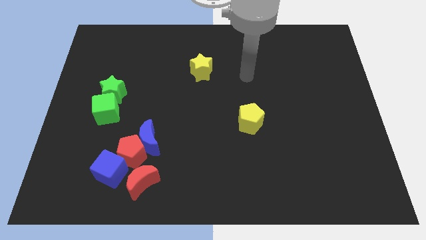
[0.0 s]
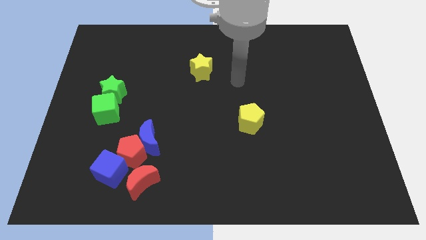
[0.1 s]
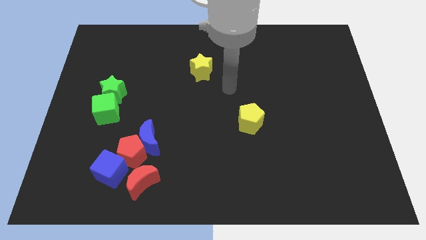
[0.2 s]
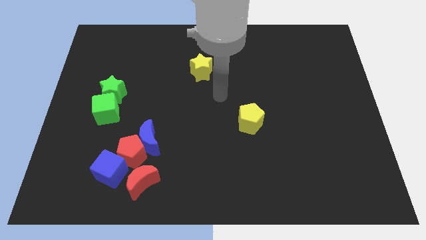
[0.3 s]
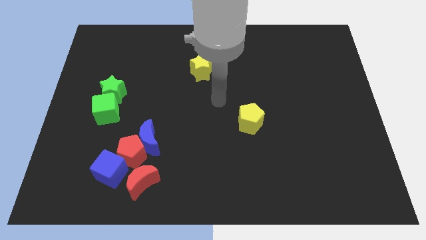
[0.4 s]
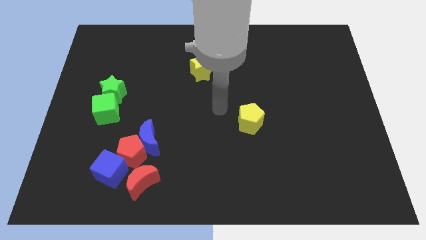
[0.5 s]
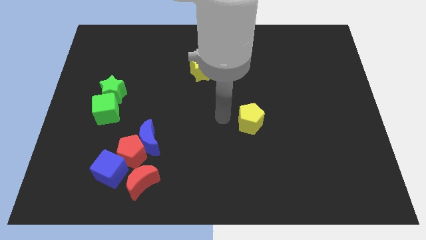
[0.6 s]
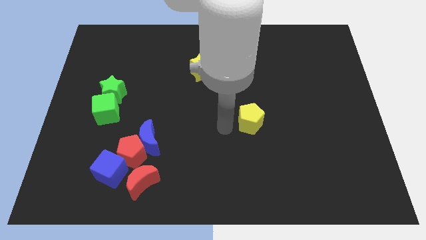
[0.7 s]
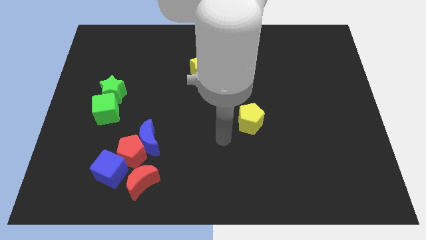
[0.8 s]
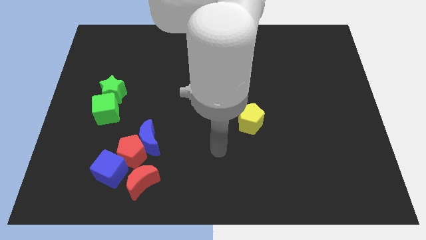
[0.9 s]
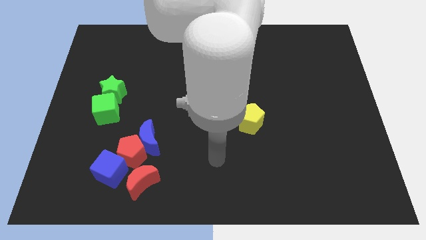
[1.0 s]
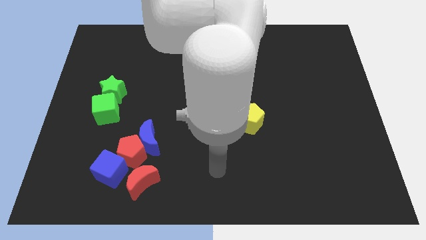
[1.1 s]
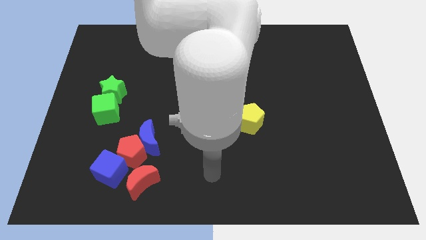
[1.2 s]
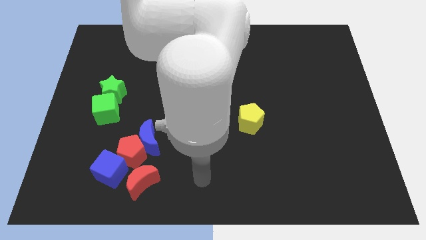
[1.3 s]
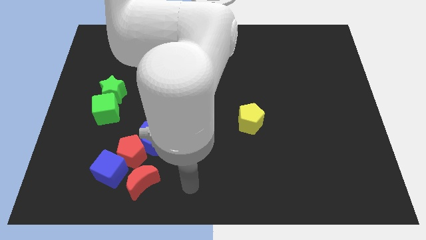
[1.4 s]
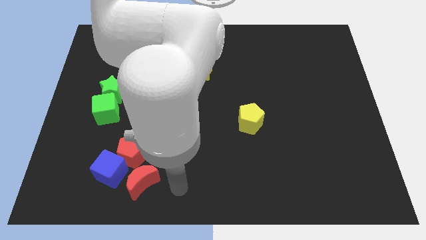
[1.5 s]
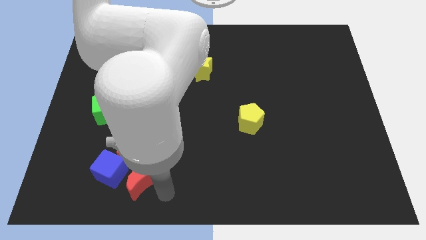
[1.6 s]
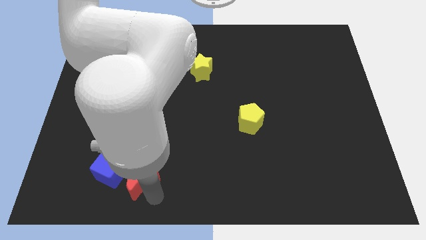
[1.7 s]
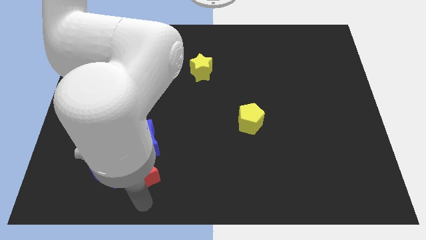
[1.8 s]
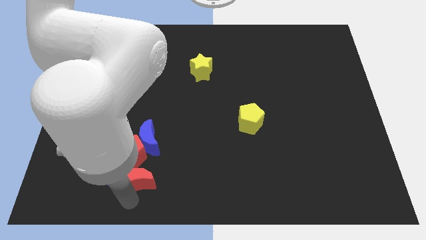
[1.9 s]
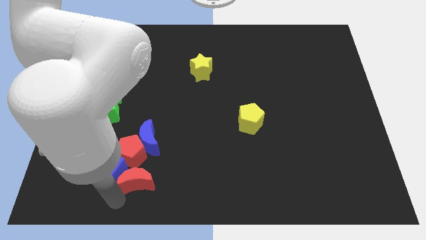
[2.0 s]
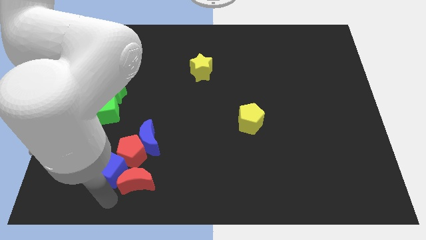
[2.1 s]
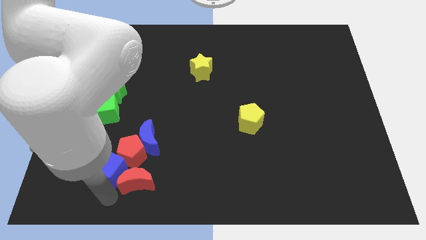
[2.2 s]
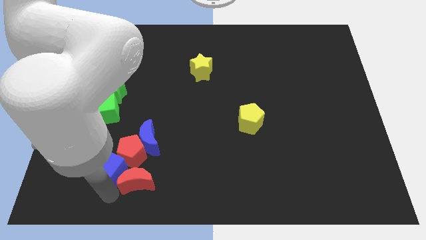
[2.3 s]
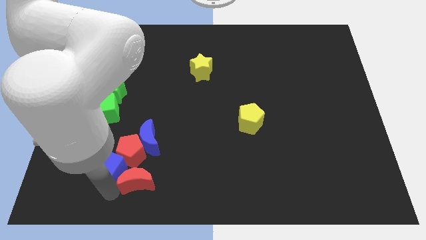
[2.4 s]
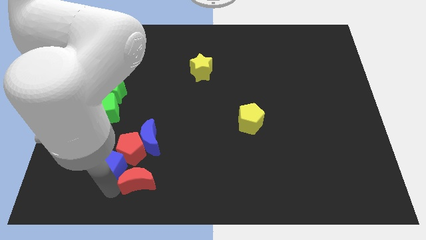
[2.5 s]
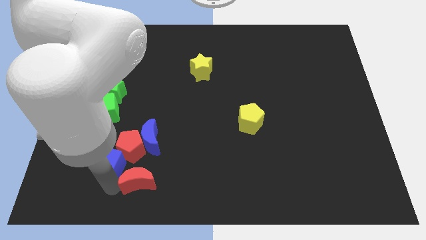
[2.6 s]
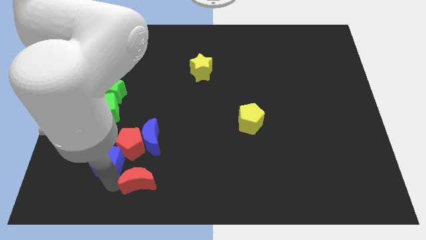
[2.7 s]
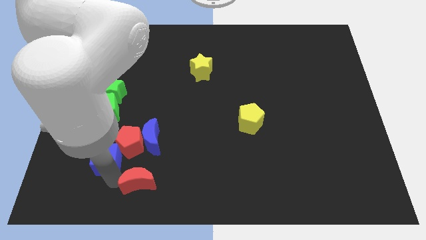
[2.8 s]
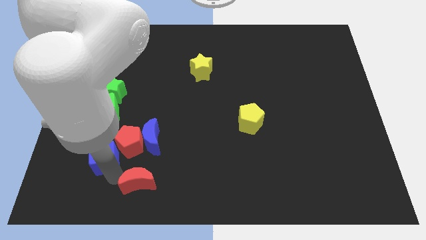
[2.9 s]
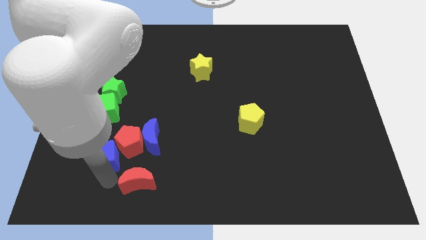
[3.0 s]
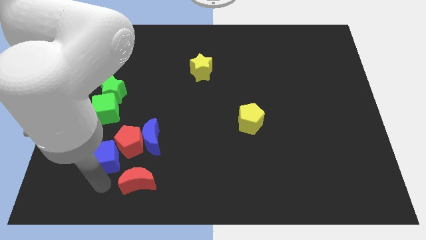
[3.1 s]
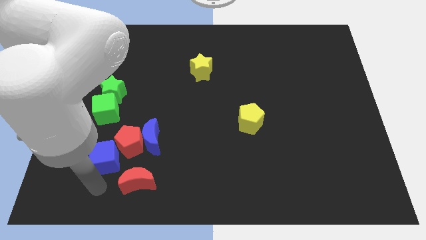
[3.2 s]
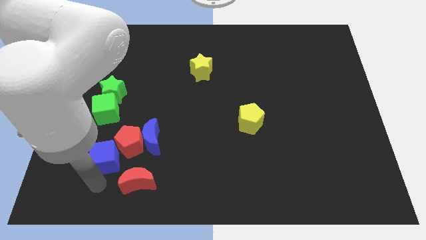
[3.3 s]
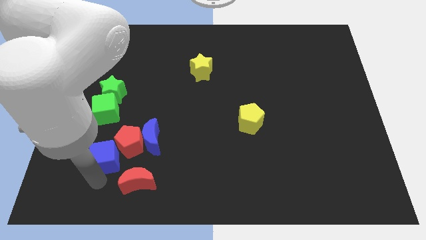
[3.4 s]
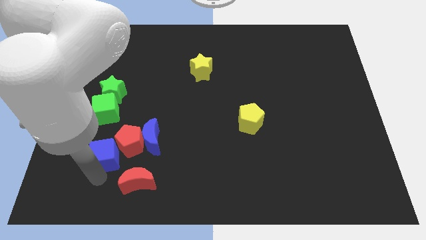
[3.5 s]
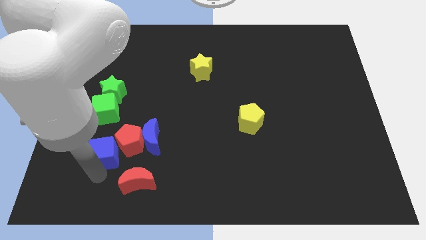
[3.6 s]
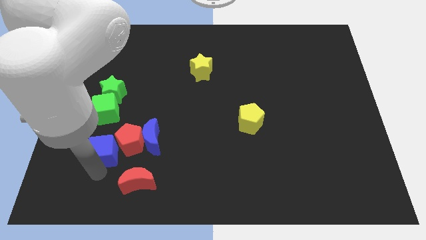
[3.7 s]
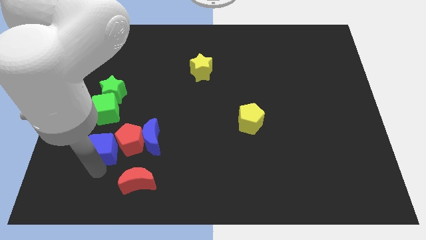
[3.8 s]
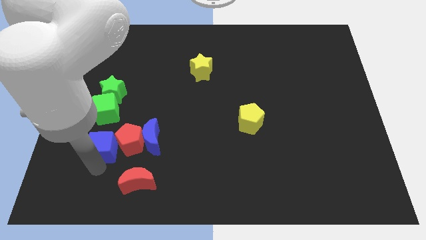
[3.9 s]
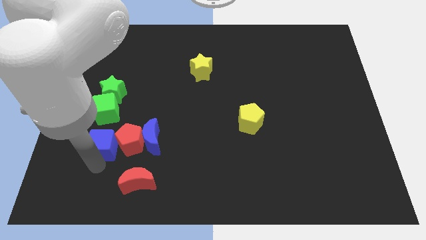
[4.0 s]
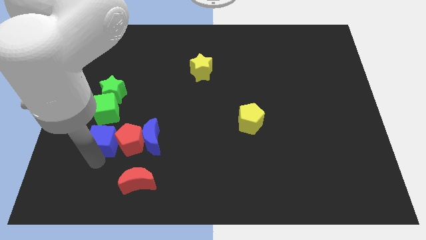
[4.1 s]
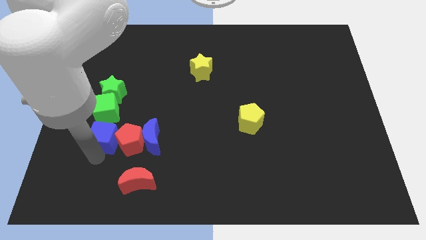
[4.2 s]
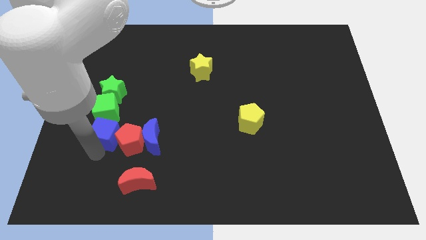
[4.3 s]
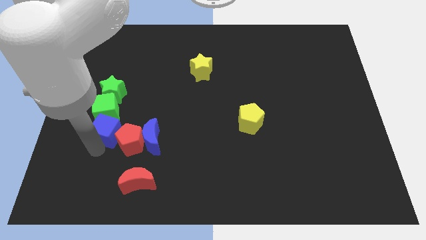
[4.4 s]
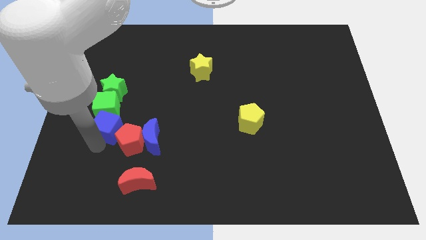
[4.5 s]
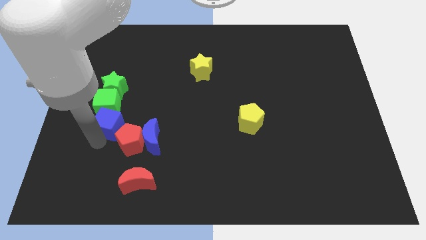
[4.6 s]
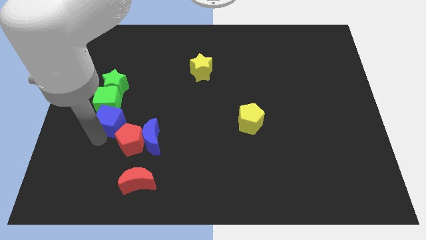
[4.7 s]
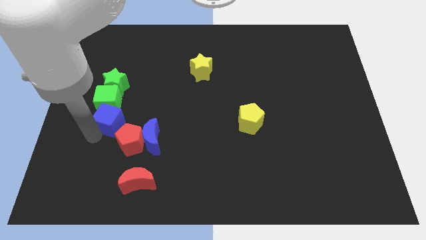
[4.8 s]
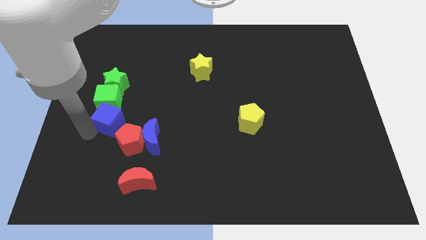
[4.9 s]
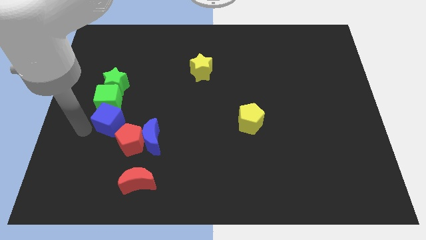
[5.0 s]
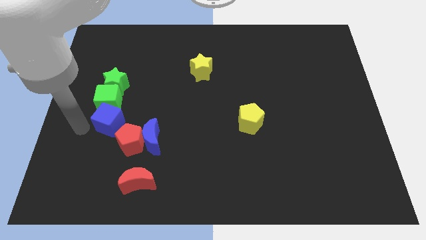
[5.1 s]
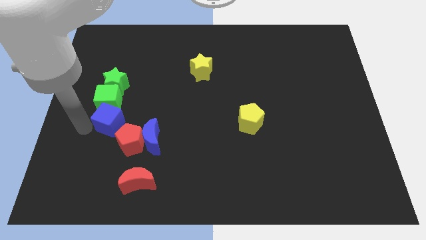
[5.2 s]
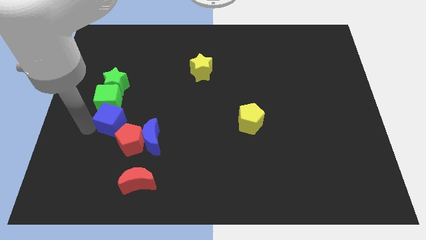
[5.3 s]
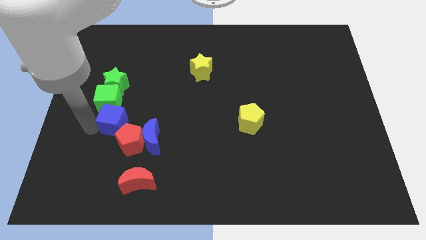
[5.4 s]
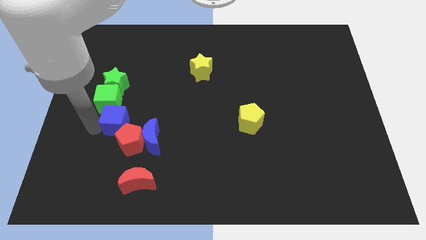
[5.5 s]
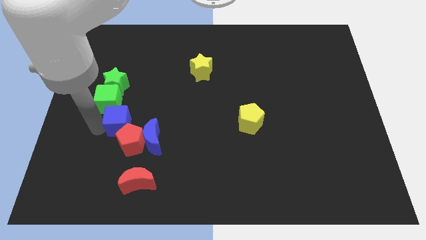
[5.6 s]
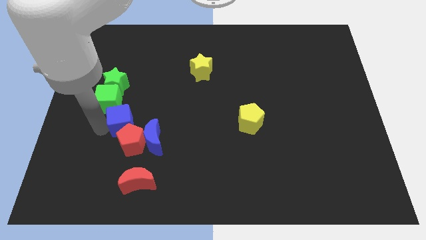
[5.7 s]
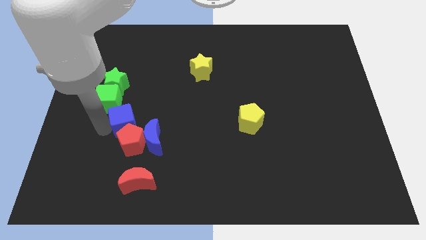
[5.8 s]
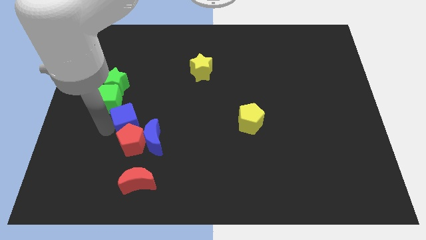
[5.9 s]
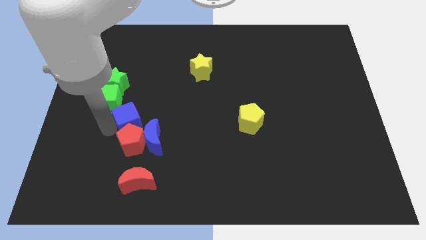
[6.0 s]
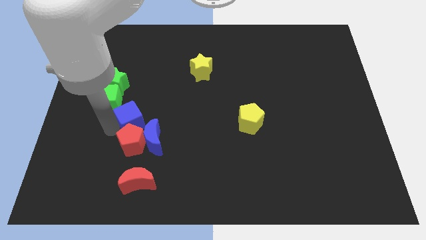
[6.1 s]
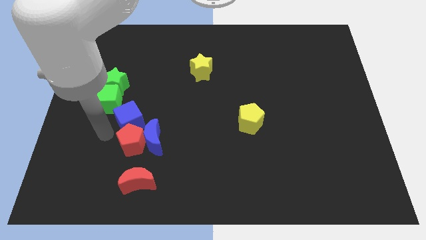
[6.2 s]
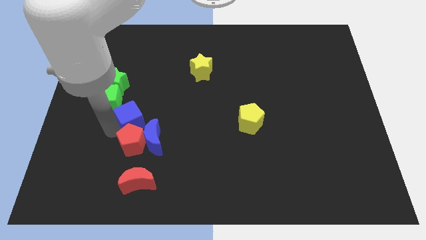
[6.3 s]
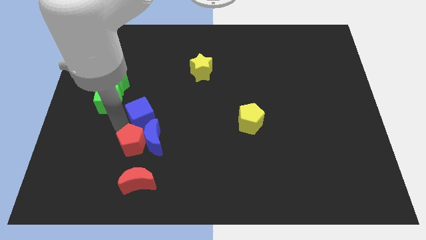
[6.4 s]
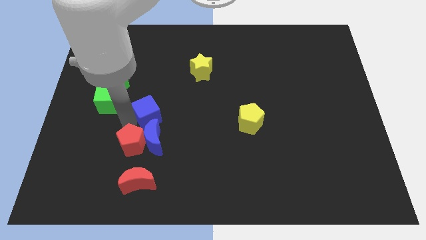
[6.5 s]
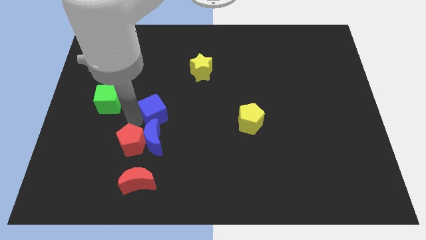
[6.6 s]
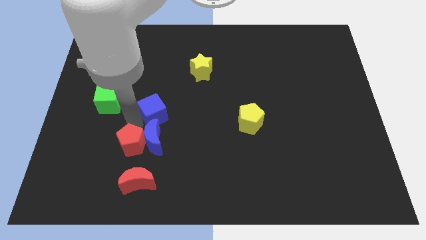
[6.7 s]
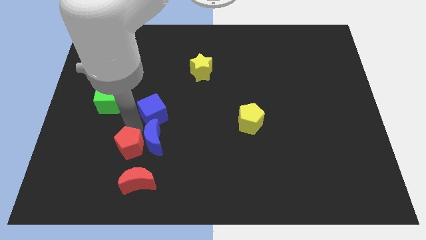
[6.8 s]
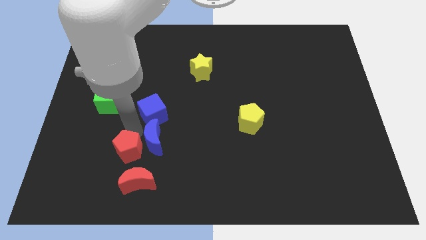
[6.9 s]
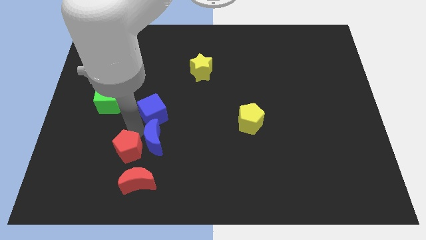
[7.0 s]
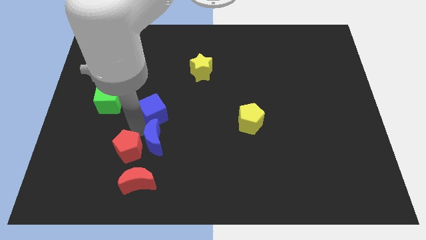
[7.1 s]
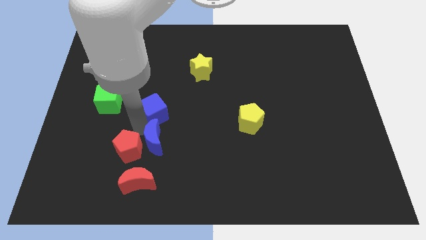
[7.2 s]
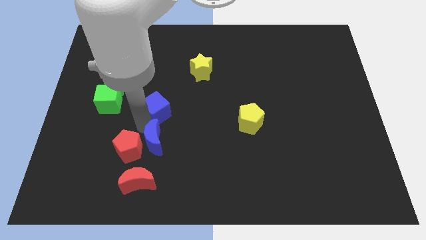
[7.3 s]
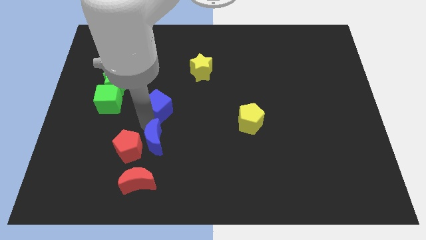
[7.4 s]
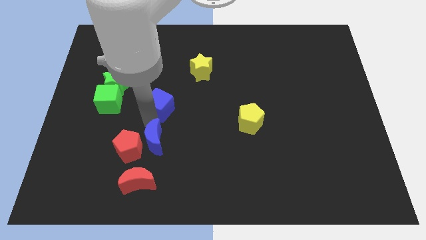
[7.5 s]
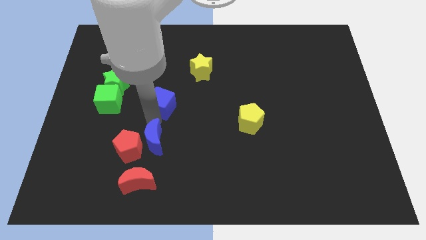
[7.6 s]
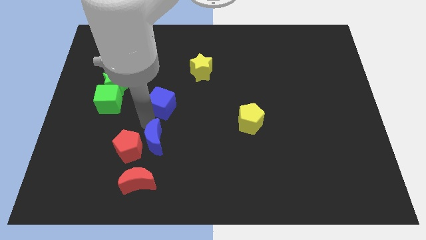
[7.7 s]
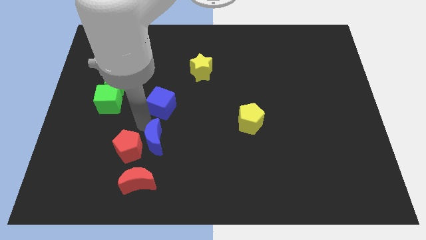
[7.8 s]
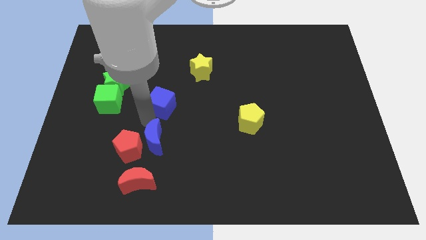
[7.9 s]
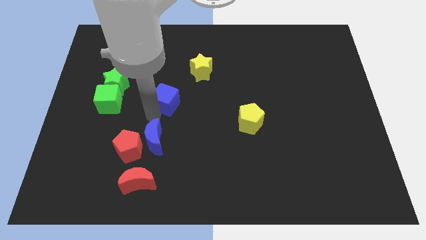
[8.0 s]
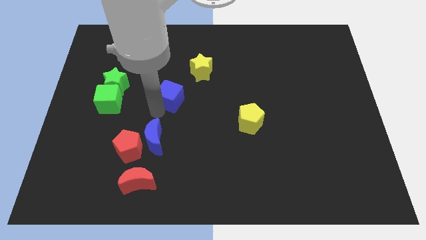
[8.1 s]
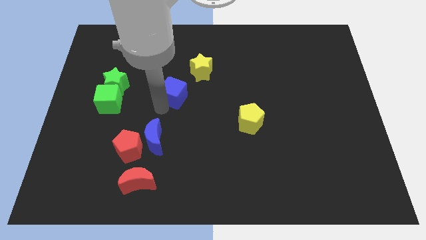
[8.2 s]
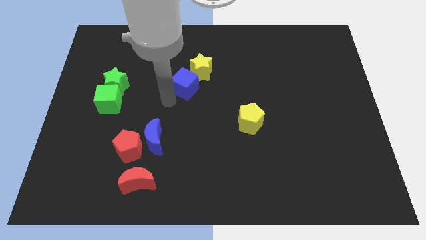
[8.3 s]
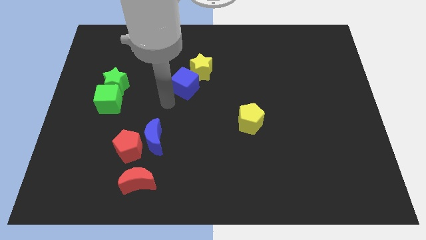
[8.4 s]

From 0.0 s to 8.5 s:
slide the blue cube next to the yellow star
